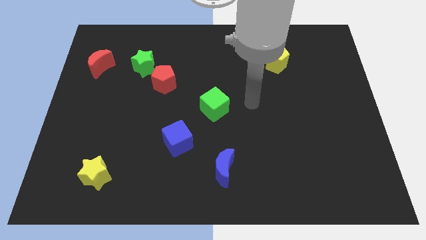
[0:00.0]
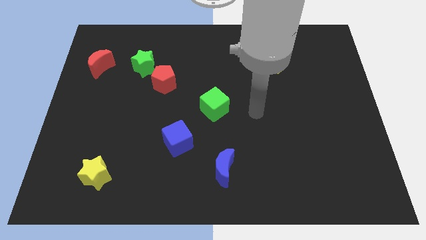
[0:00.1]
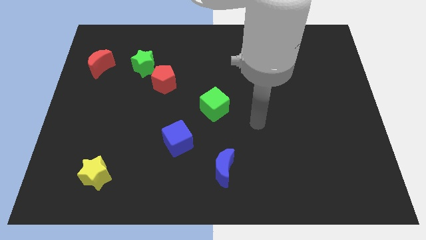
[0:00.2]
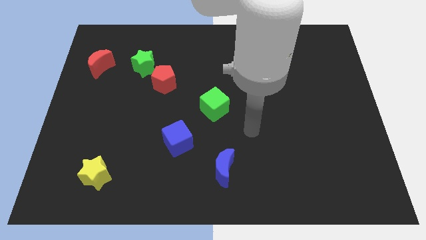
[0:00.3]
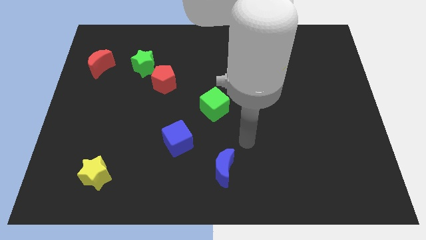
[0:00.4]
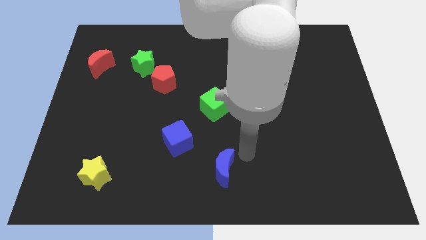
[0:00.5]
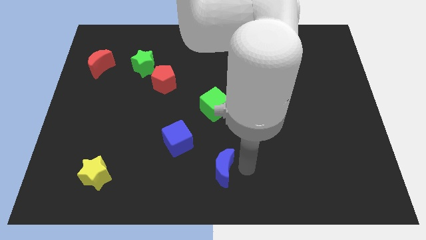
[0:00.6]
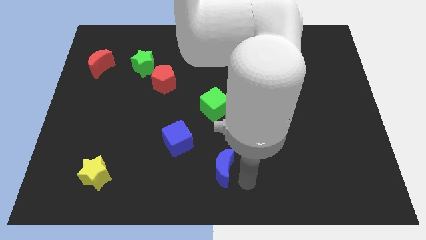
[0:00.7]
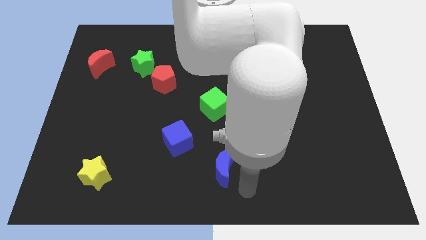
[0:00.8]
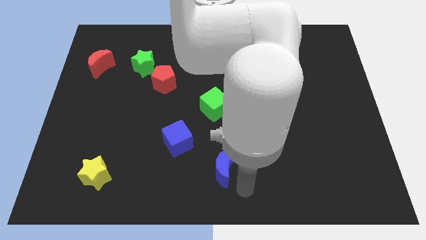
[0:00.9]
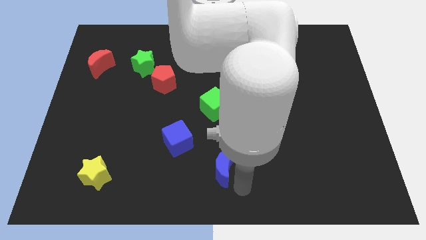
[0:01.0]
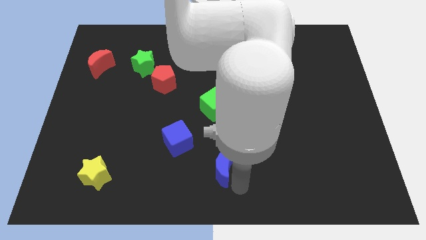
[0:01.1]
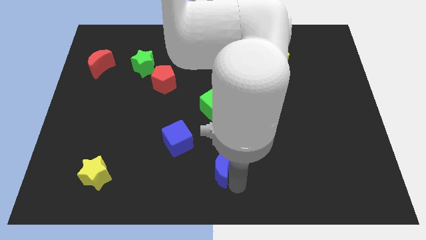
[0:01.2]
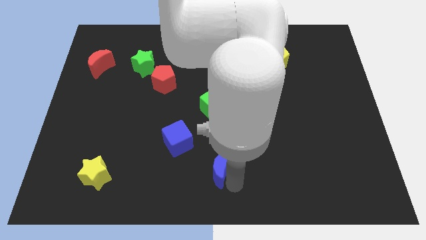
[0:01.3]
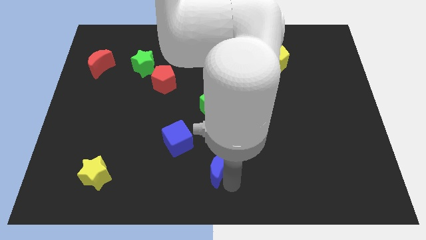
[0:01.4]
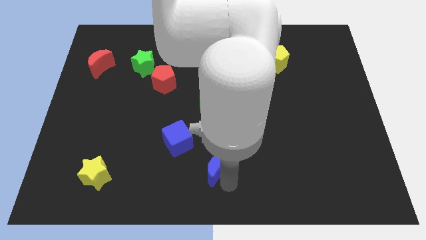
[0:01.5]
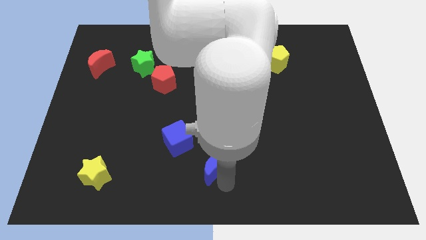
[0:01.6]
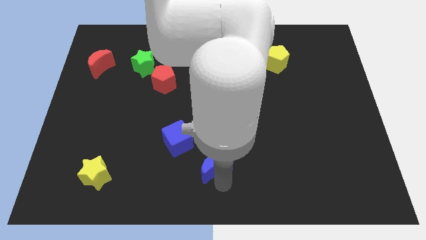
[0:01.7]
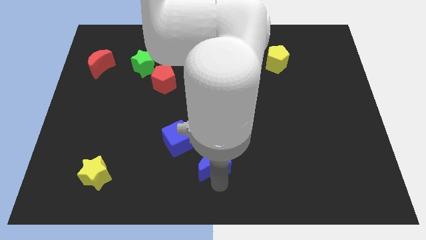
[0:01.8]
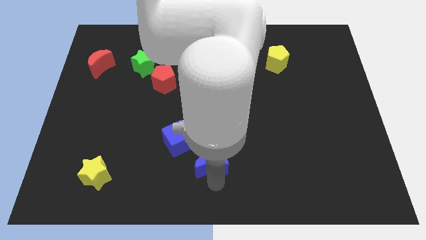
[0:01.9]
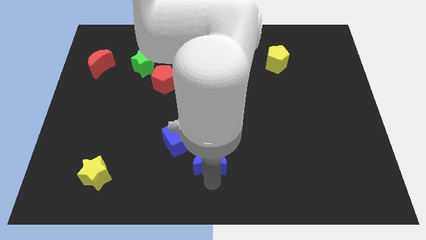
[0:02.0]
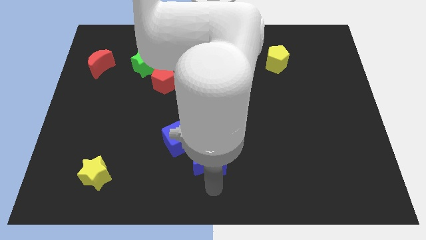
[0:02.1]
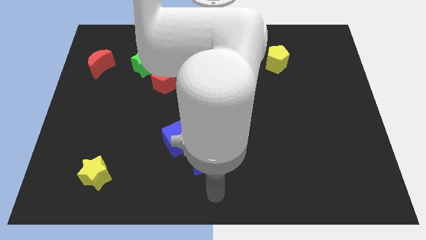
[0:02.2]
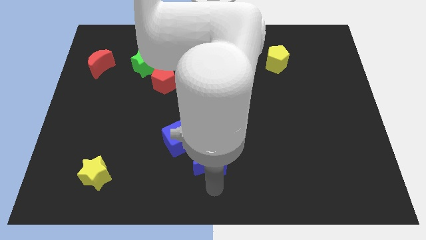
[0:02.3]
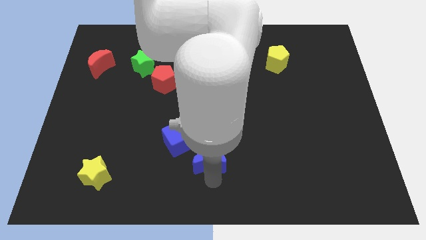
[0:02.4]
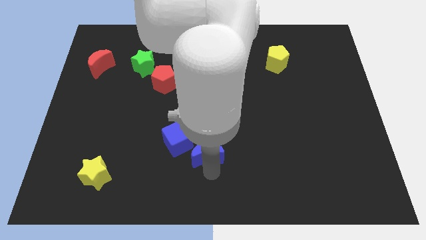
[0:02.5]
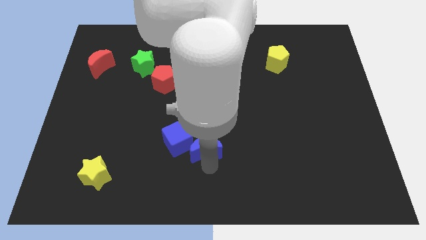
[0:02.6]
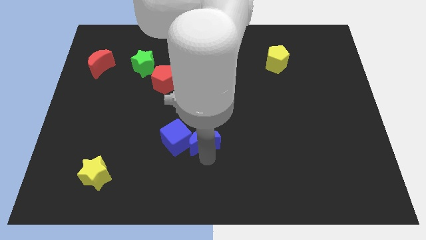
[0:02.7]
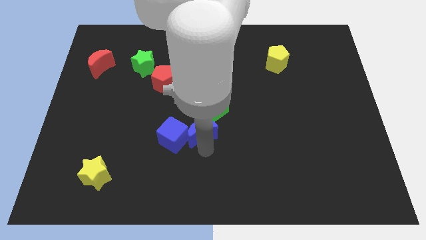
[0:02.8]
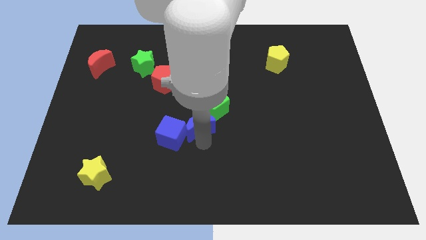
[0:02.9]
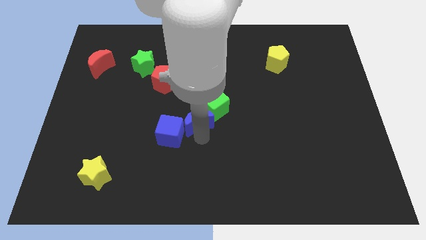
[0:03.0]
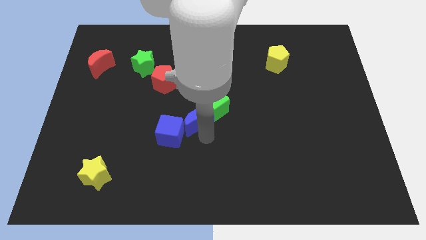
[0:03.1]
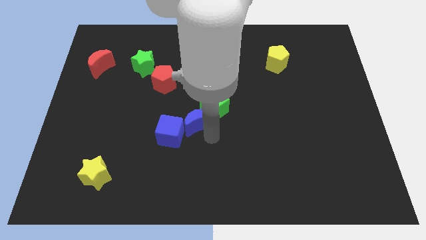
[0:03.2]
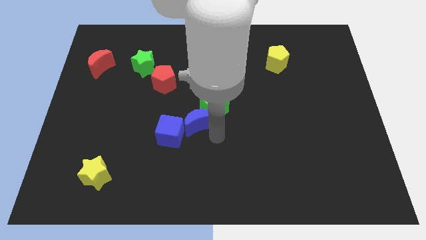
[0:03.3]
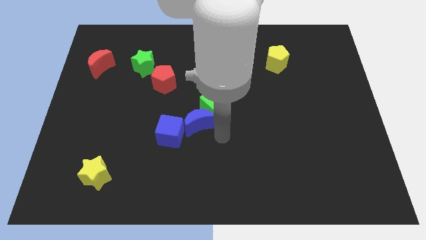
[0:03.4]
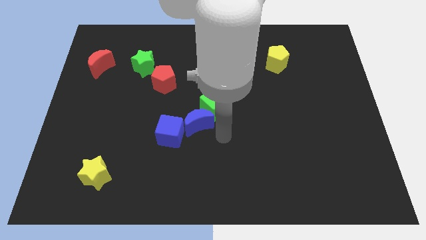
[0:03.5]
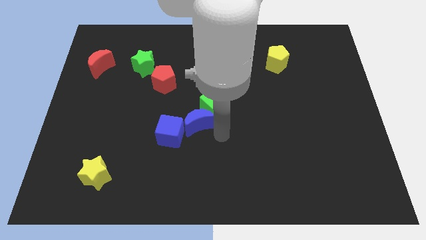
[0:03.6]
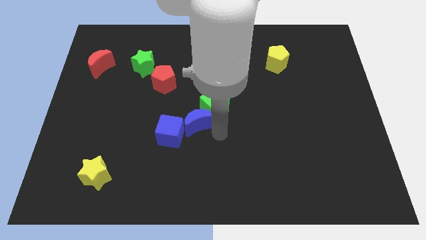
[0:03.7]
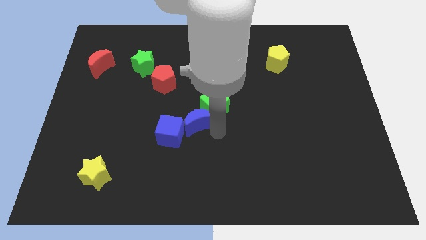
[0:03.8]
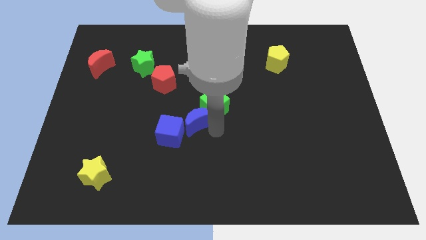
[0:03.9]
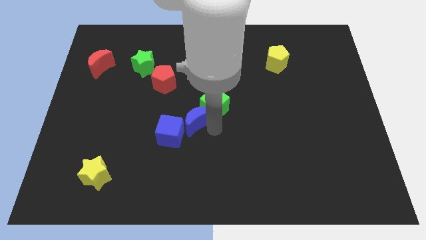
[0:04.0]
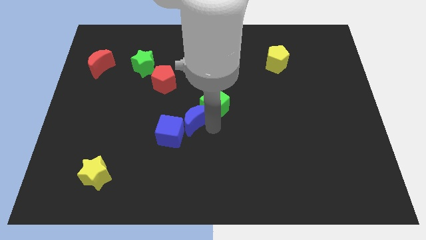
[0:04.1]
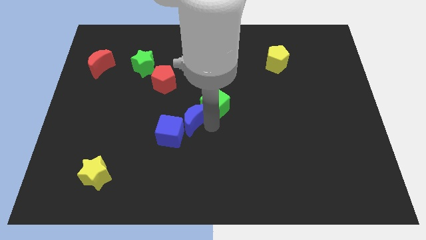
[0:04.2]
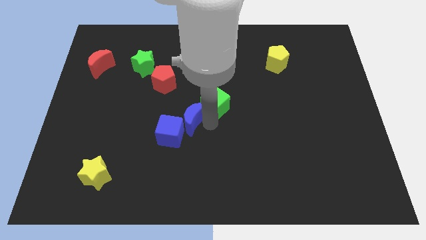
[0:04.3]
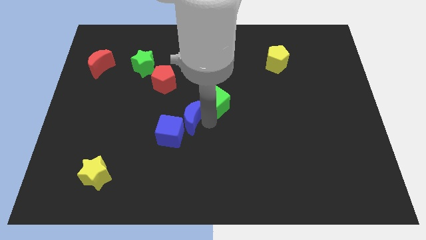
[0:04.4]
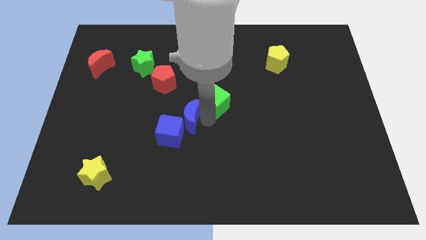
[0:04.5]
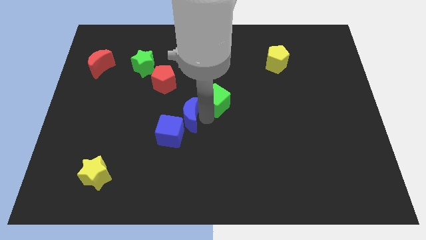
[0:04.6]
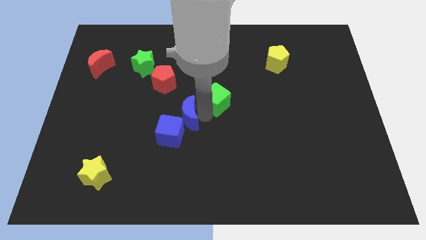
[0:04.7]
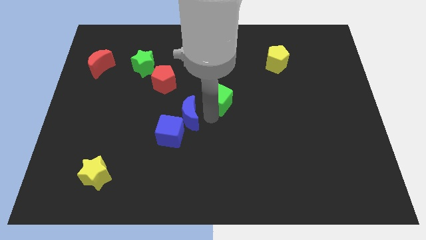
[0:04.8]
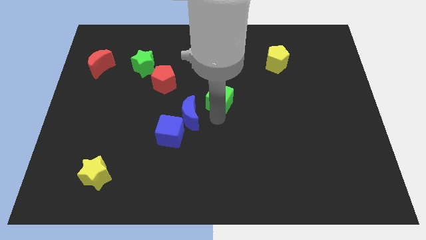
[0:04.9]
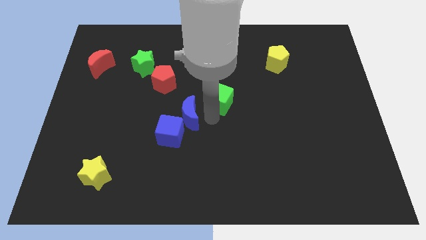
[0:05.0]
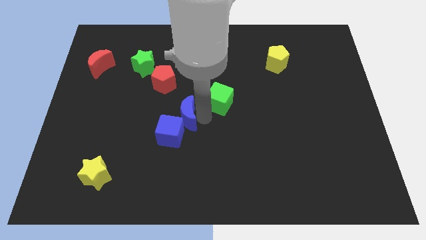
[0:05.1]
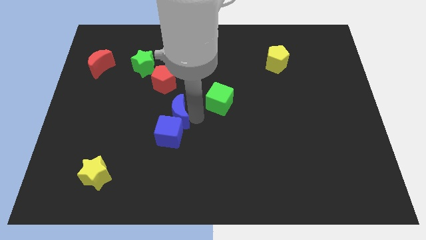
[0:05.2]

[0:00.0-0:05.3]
push the blue moon below the red pentagon

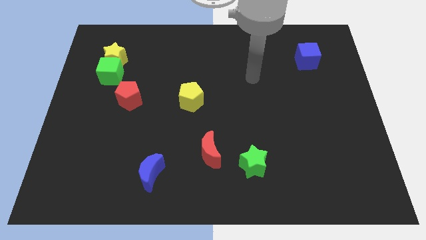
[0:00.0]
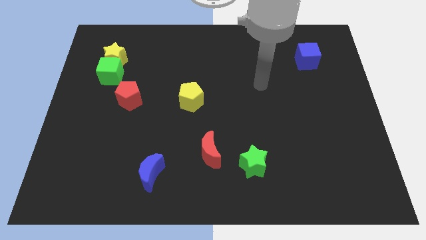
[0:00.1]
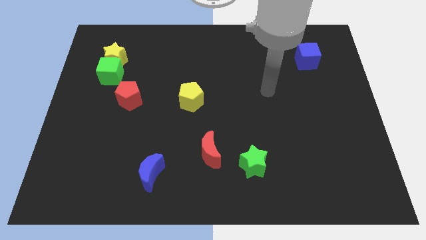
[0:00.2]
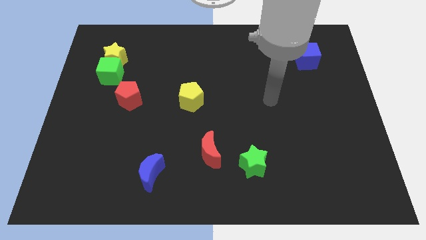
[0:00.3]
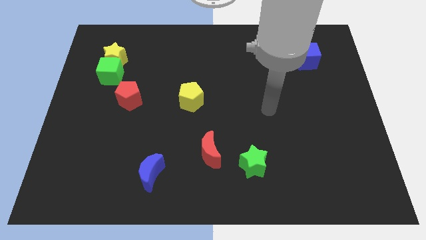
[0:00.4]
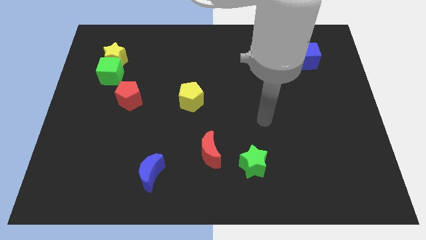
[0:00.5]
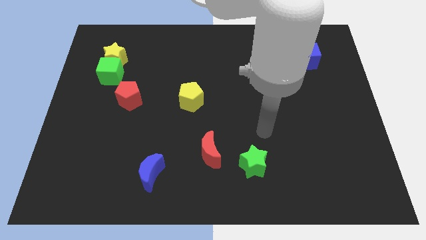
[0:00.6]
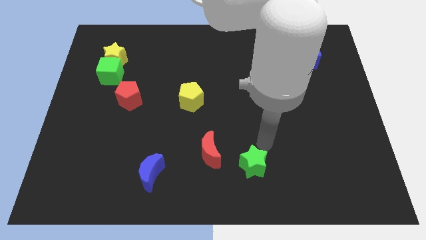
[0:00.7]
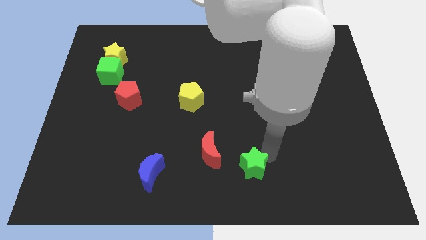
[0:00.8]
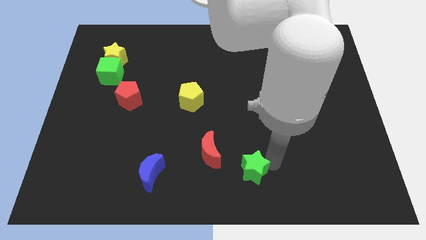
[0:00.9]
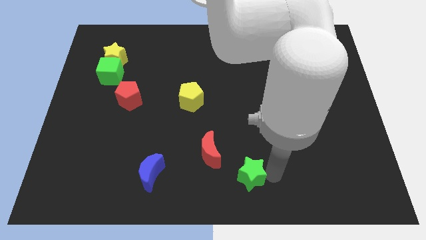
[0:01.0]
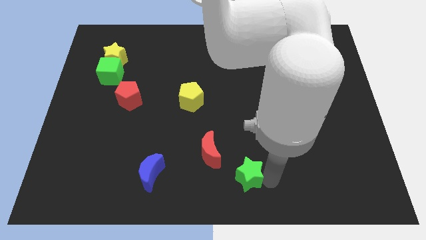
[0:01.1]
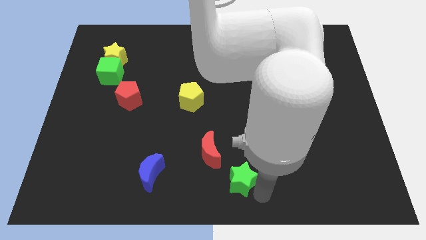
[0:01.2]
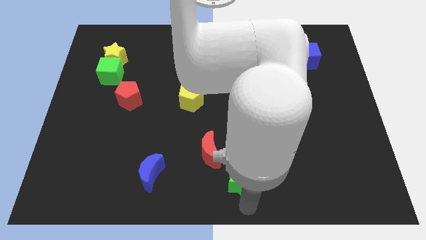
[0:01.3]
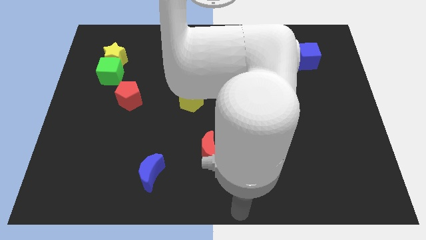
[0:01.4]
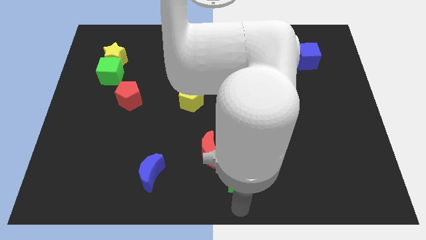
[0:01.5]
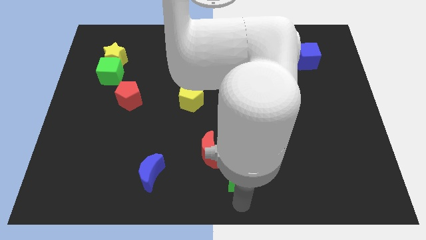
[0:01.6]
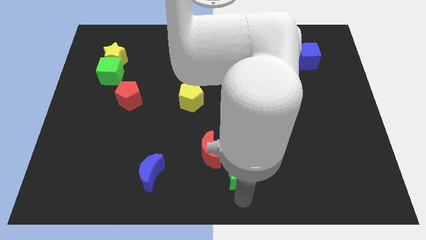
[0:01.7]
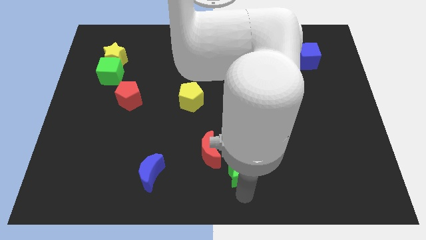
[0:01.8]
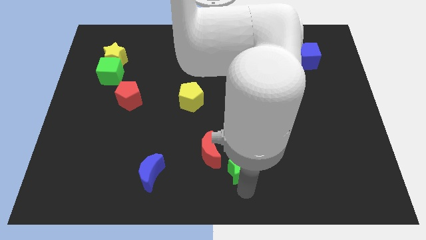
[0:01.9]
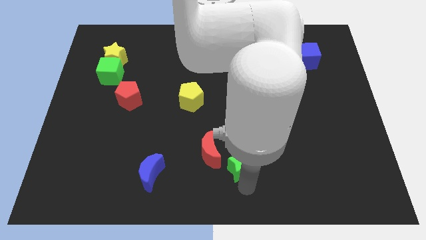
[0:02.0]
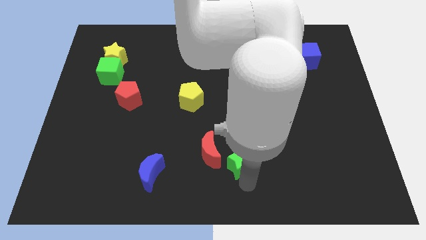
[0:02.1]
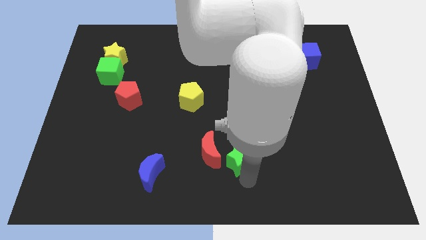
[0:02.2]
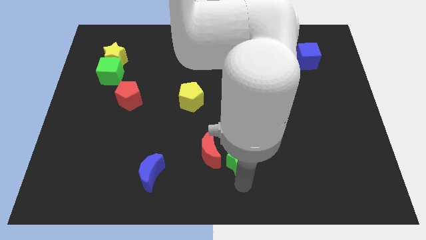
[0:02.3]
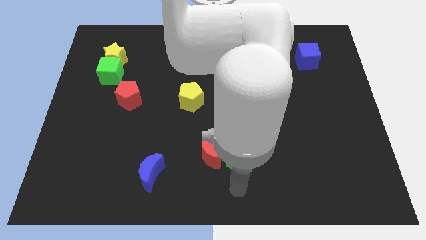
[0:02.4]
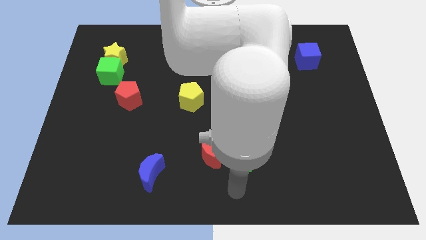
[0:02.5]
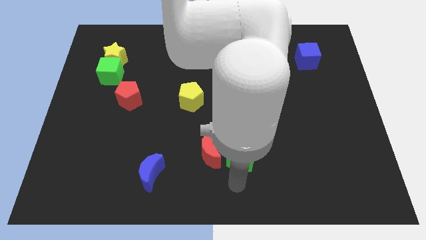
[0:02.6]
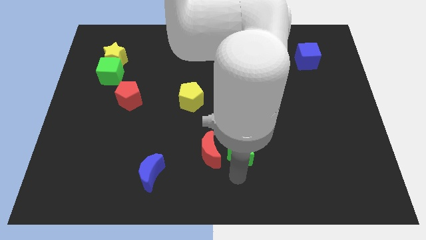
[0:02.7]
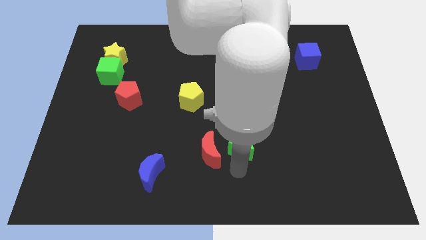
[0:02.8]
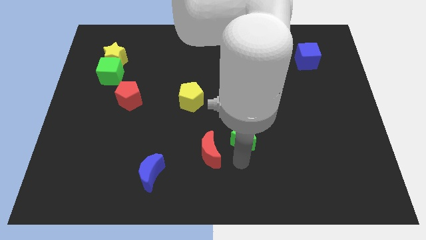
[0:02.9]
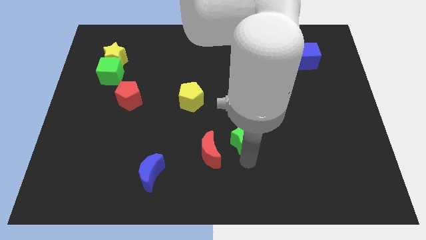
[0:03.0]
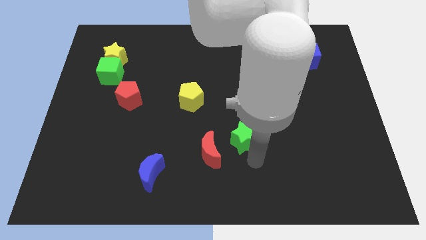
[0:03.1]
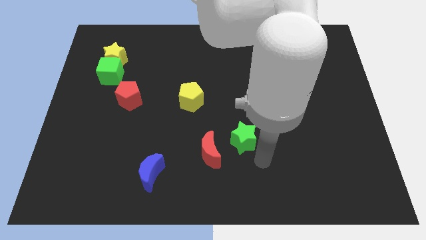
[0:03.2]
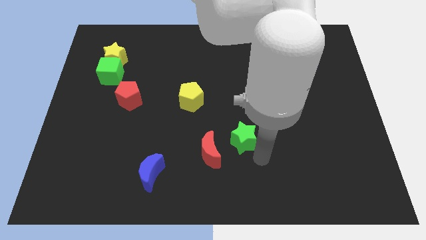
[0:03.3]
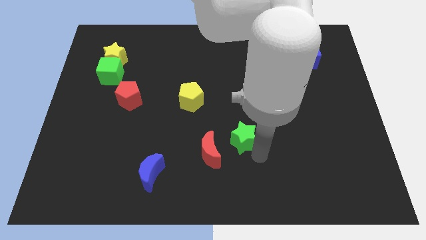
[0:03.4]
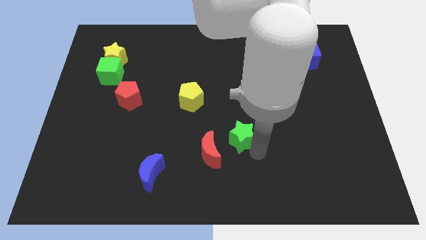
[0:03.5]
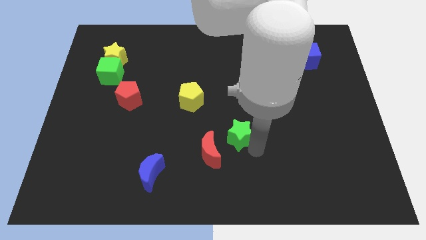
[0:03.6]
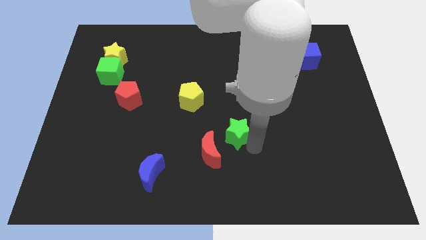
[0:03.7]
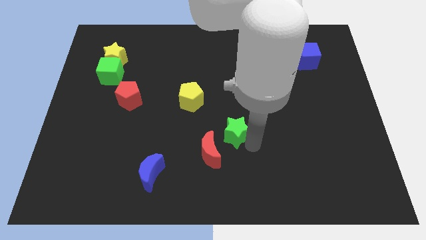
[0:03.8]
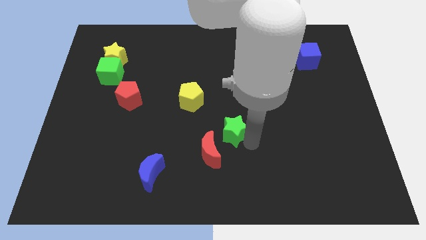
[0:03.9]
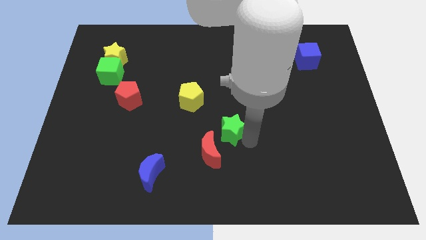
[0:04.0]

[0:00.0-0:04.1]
put the green star to the top side of the red moon
